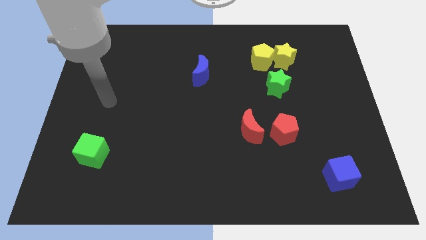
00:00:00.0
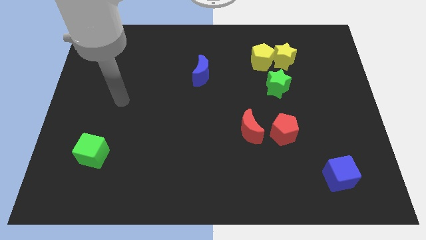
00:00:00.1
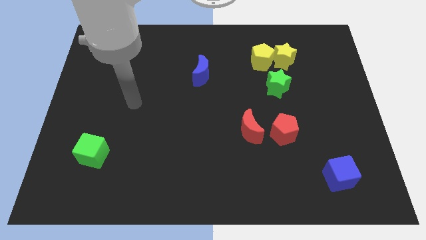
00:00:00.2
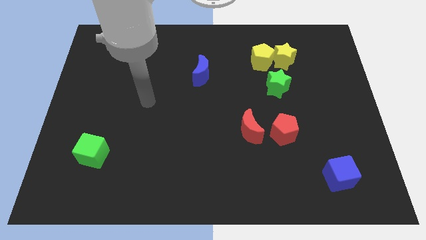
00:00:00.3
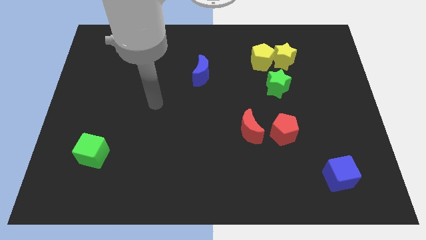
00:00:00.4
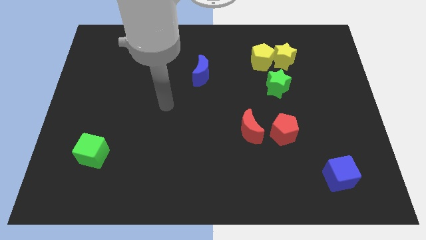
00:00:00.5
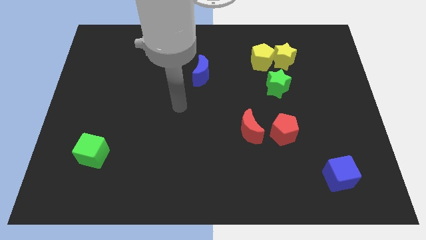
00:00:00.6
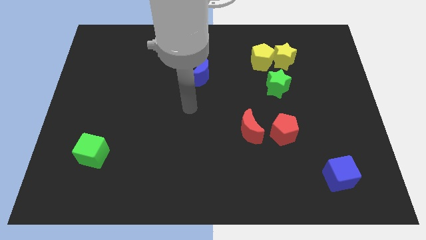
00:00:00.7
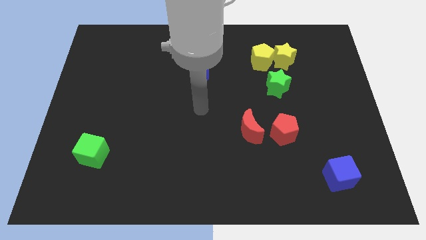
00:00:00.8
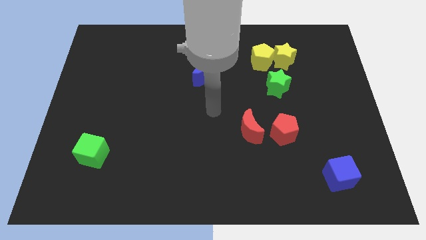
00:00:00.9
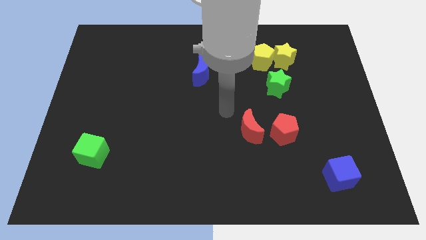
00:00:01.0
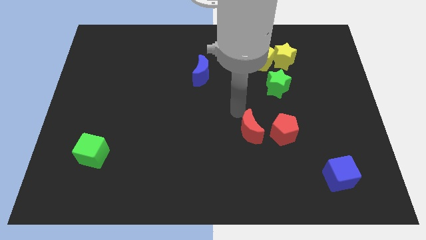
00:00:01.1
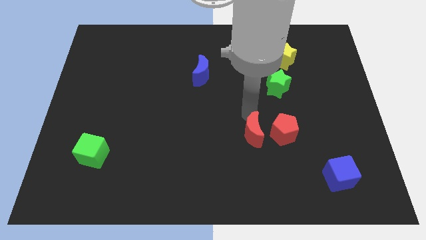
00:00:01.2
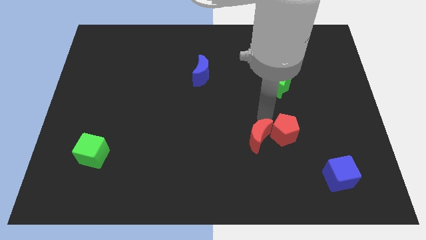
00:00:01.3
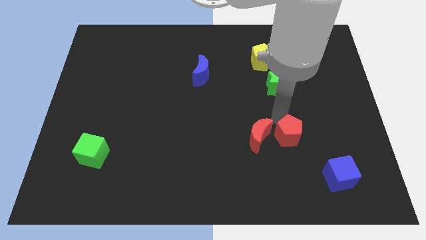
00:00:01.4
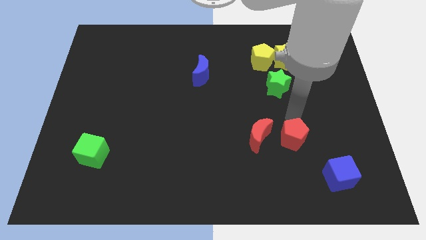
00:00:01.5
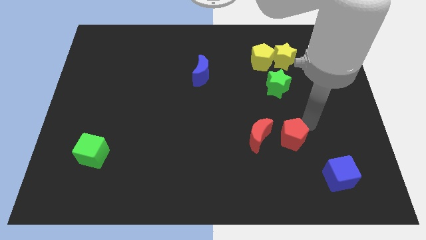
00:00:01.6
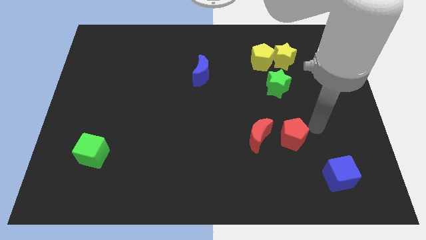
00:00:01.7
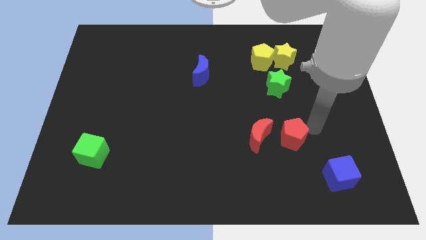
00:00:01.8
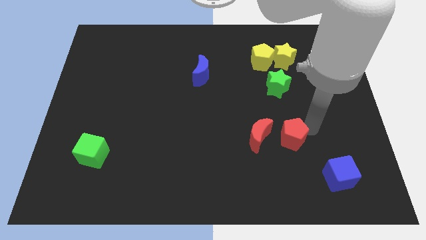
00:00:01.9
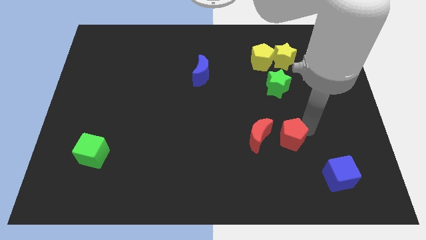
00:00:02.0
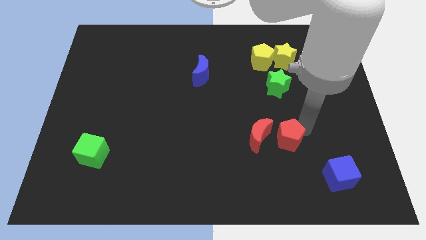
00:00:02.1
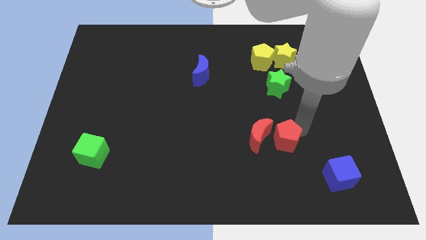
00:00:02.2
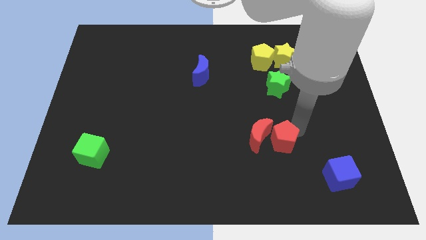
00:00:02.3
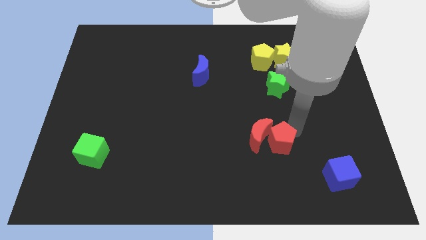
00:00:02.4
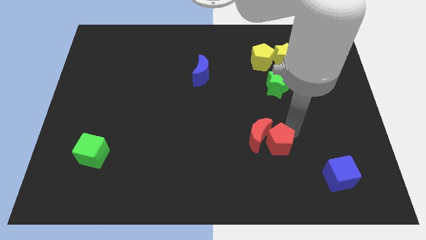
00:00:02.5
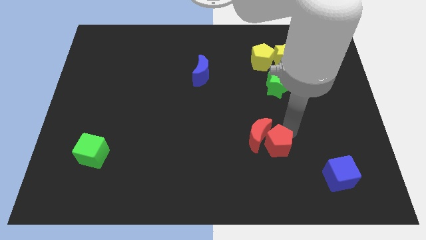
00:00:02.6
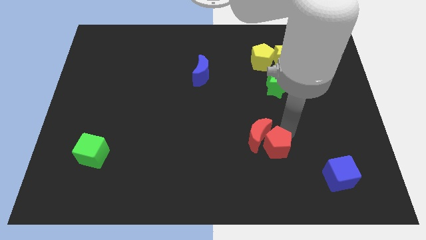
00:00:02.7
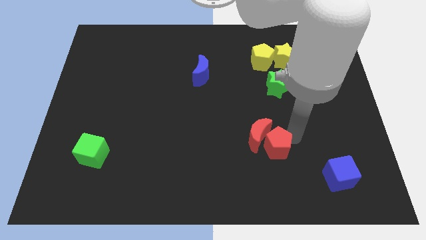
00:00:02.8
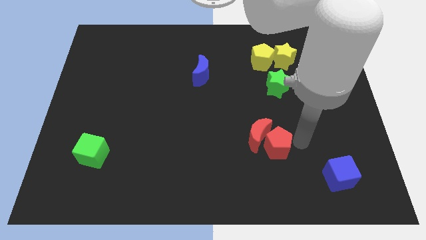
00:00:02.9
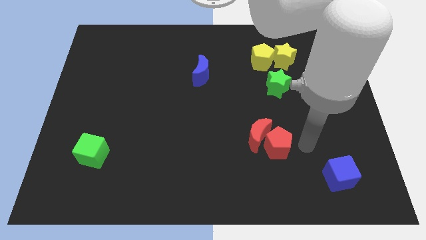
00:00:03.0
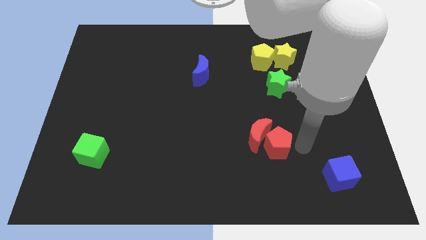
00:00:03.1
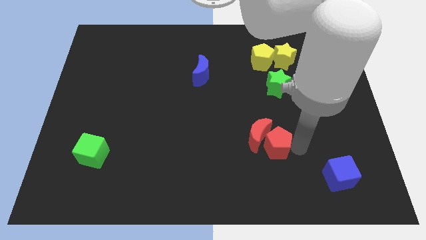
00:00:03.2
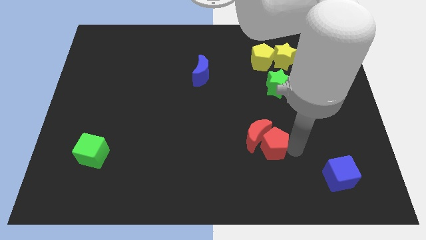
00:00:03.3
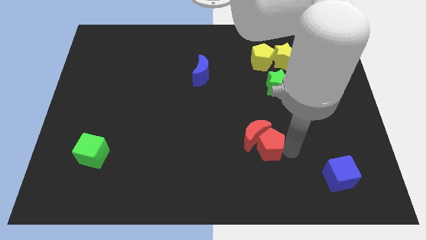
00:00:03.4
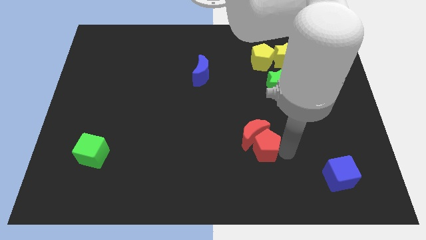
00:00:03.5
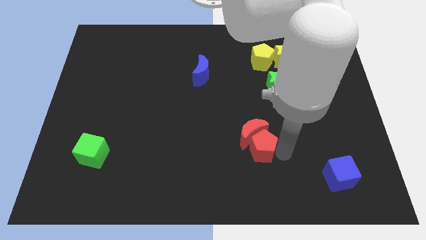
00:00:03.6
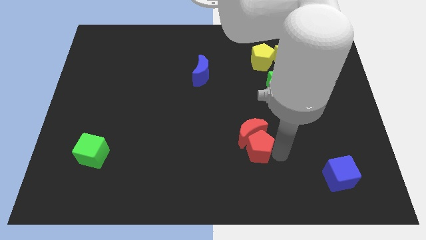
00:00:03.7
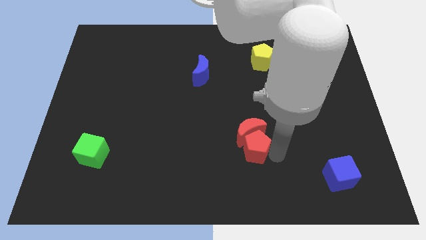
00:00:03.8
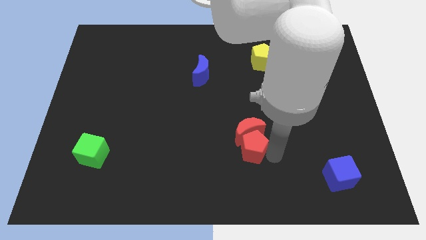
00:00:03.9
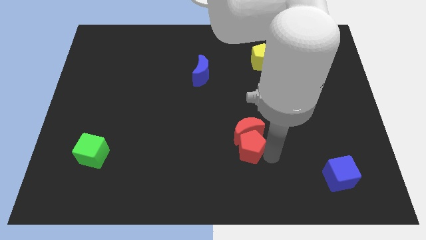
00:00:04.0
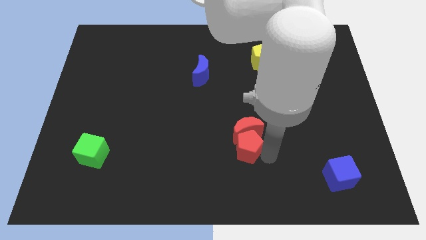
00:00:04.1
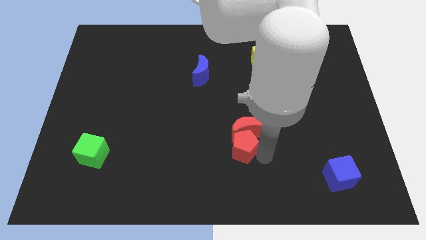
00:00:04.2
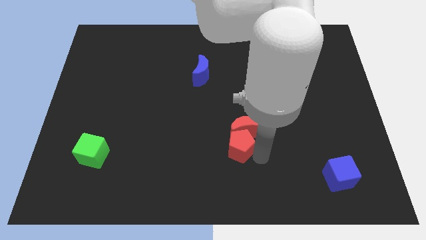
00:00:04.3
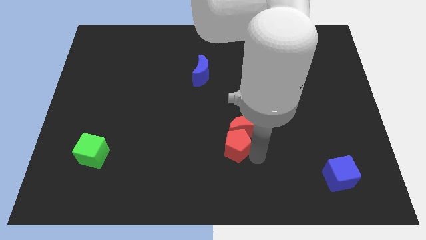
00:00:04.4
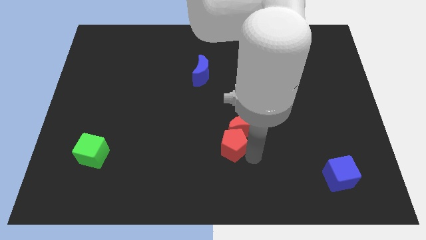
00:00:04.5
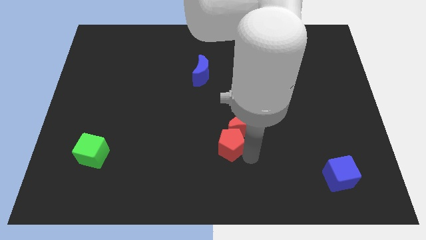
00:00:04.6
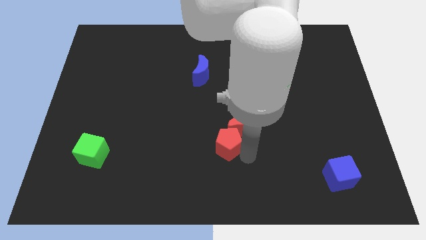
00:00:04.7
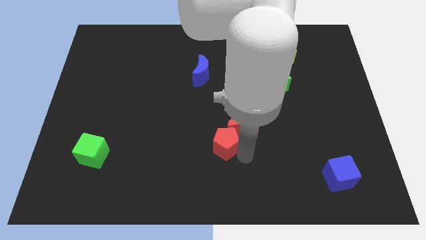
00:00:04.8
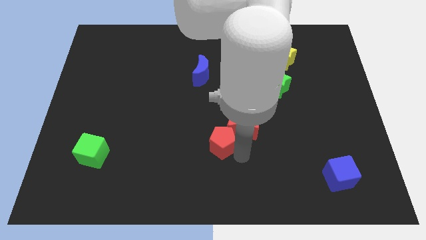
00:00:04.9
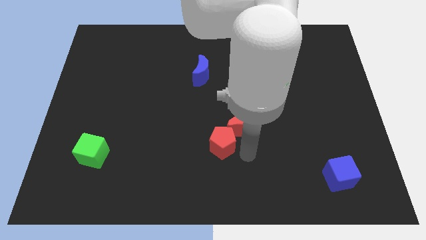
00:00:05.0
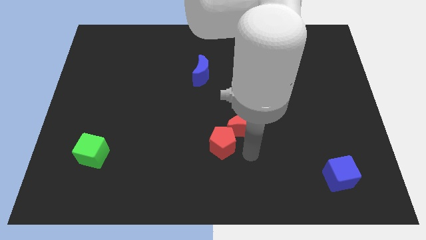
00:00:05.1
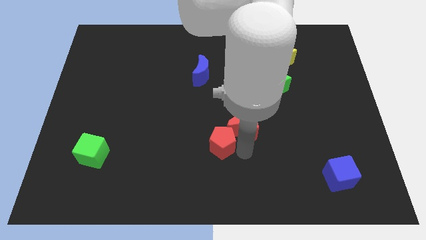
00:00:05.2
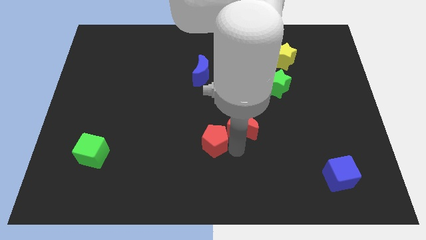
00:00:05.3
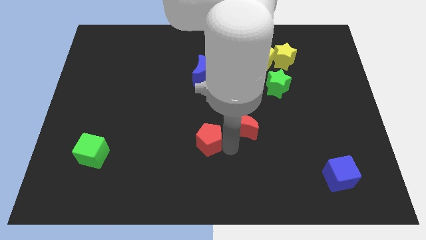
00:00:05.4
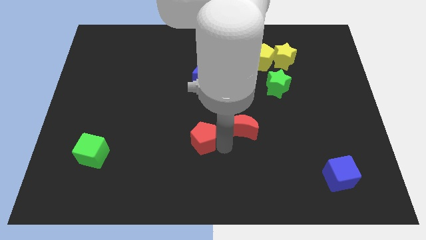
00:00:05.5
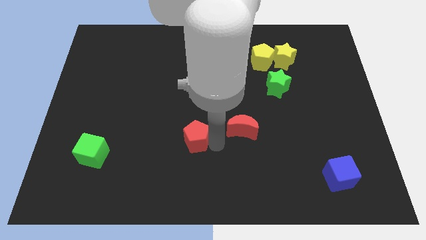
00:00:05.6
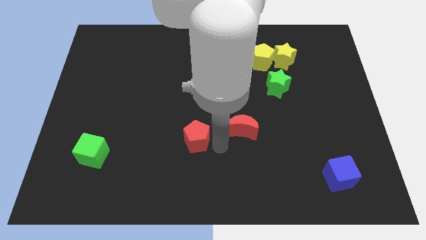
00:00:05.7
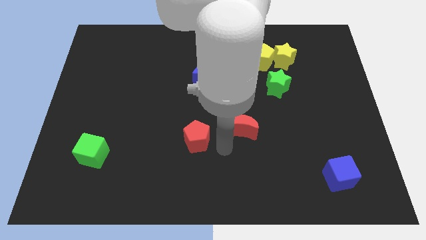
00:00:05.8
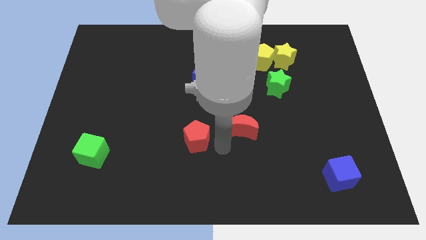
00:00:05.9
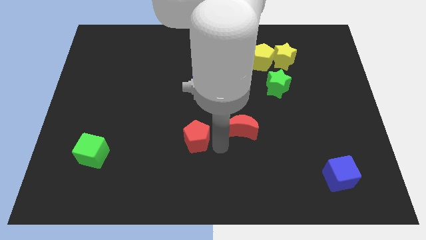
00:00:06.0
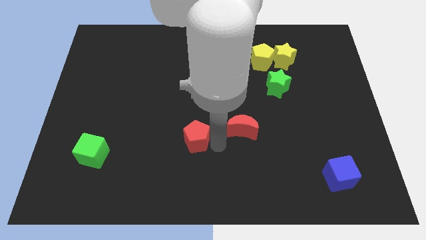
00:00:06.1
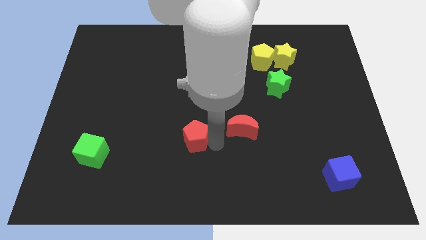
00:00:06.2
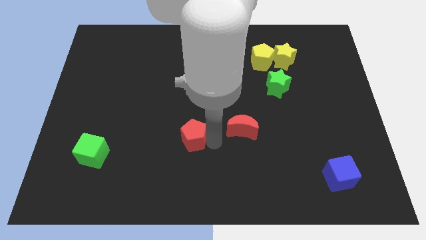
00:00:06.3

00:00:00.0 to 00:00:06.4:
push the red pentagon left

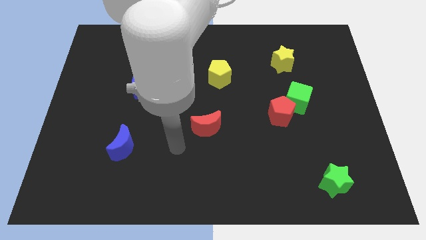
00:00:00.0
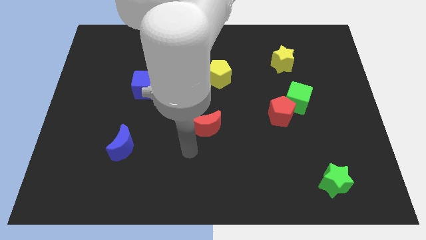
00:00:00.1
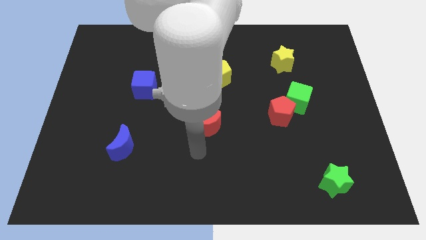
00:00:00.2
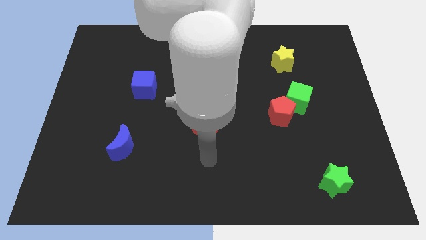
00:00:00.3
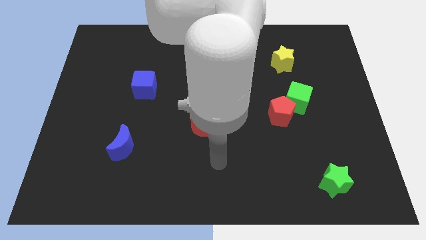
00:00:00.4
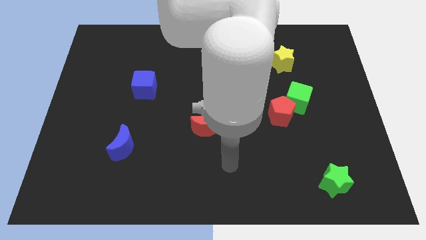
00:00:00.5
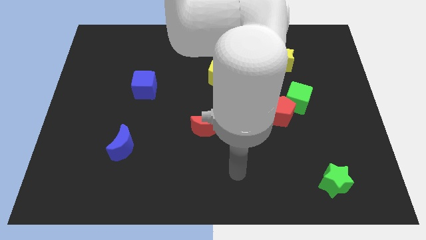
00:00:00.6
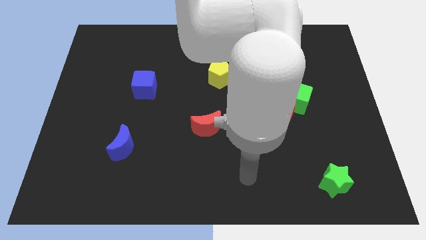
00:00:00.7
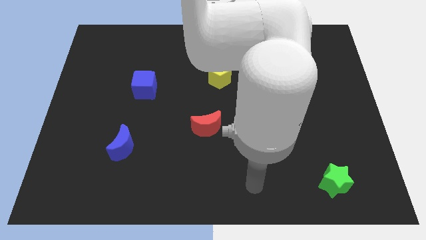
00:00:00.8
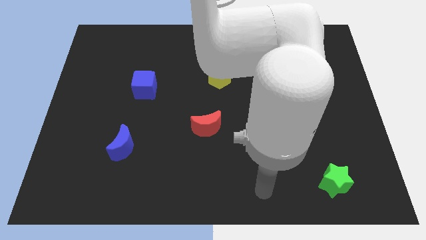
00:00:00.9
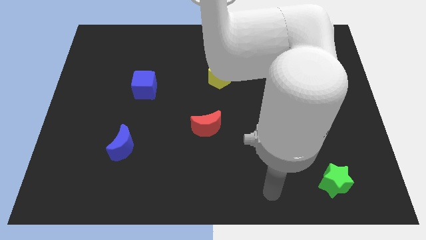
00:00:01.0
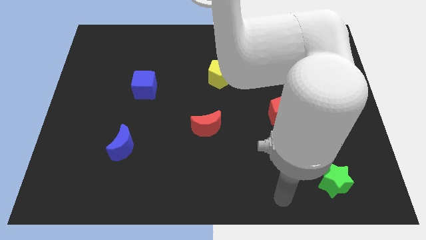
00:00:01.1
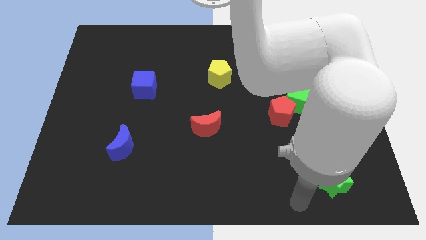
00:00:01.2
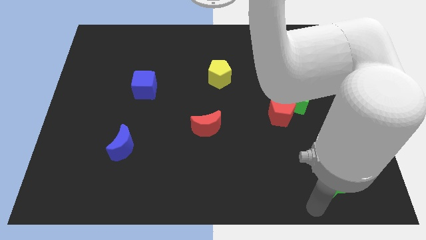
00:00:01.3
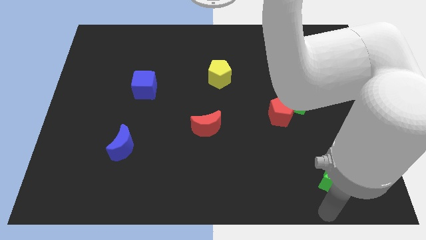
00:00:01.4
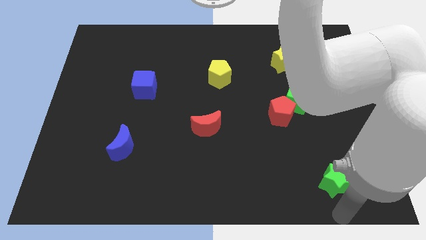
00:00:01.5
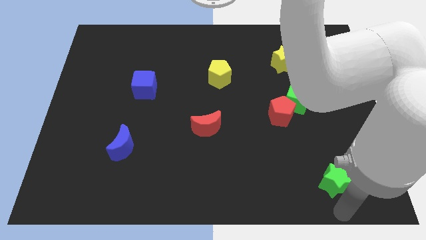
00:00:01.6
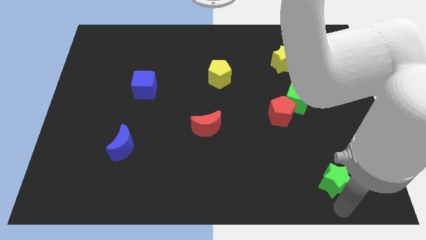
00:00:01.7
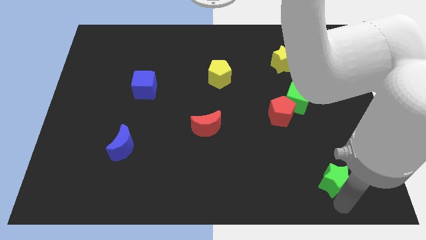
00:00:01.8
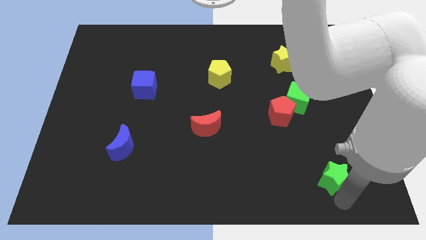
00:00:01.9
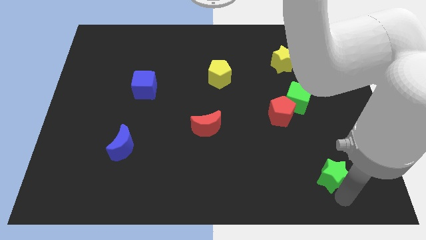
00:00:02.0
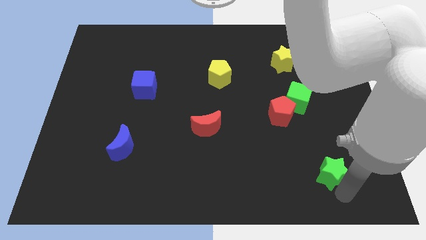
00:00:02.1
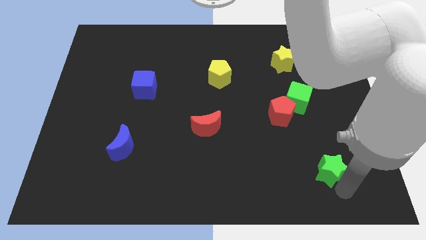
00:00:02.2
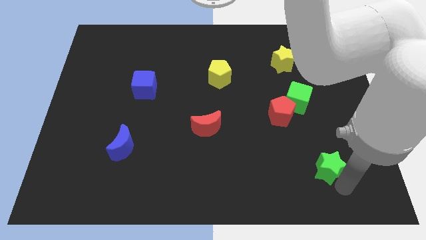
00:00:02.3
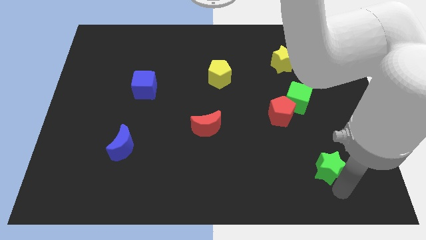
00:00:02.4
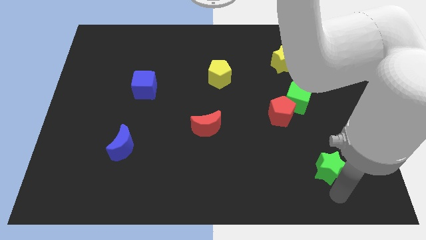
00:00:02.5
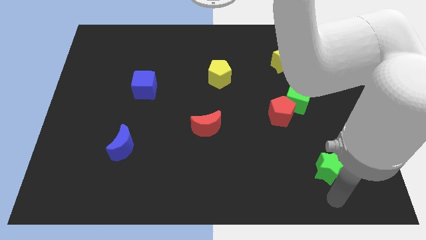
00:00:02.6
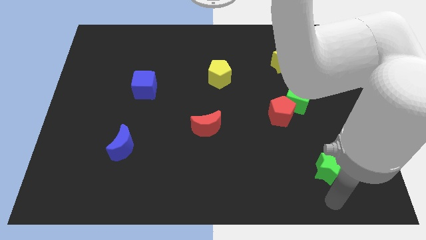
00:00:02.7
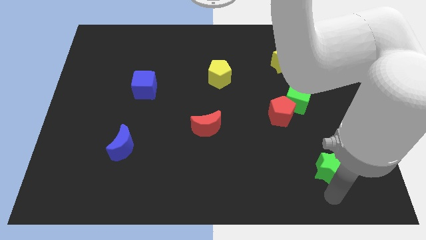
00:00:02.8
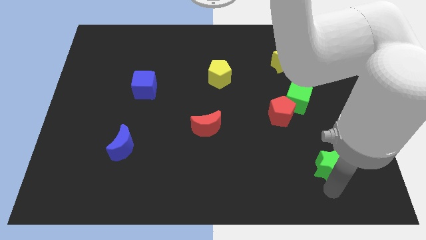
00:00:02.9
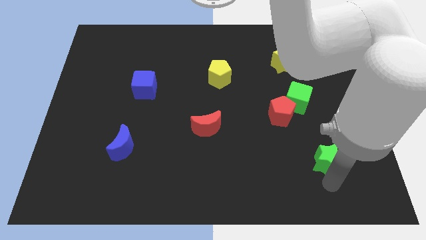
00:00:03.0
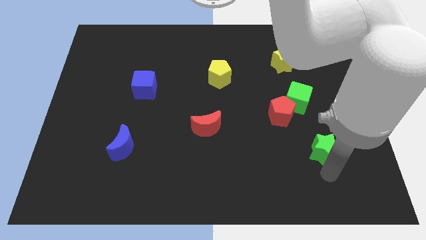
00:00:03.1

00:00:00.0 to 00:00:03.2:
slightly slide the green star up
